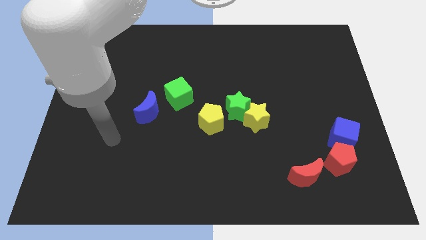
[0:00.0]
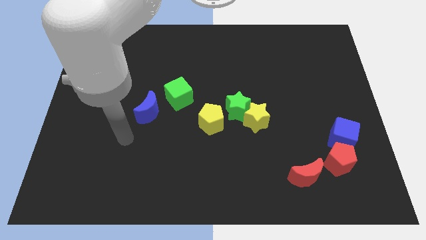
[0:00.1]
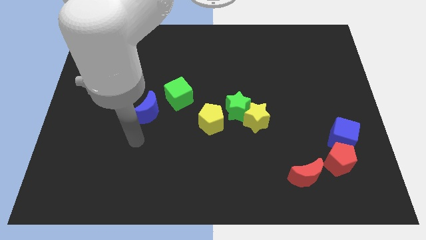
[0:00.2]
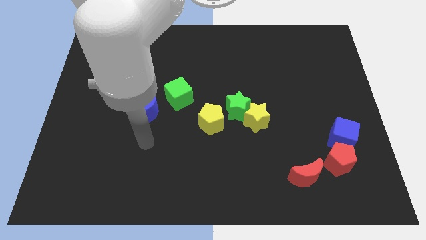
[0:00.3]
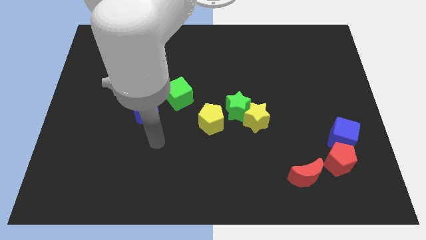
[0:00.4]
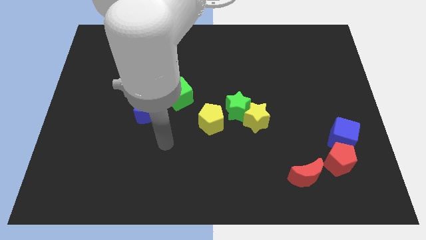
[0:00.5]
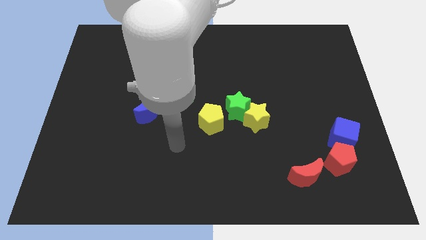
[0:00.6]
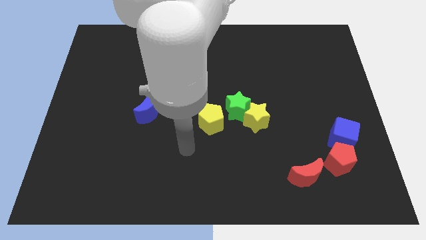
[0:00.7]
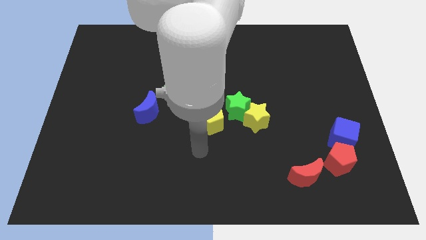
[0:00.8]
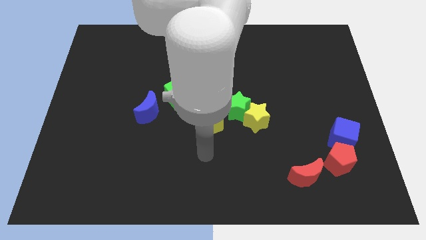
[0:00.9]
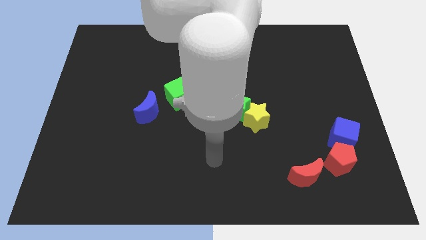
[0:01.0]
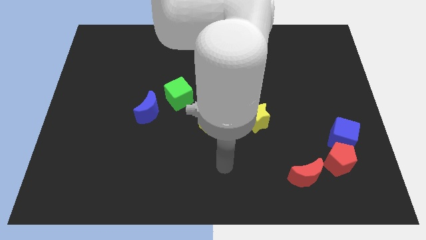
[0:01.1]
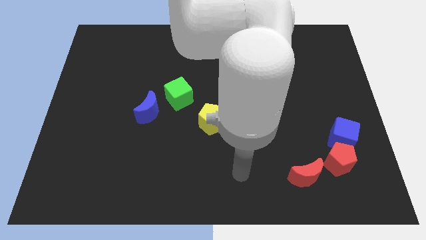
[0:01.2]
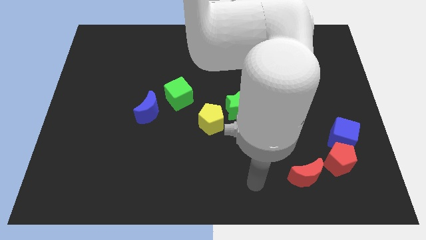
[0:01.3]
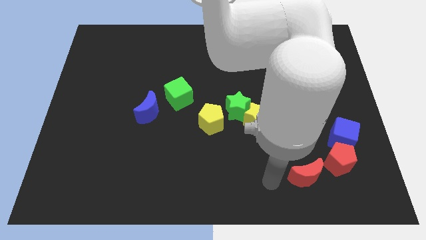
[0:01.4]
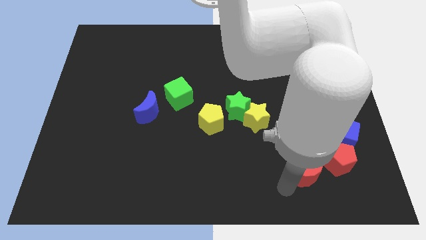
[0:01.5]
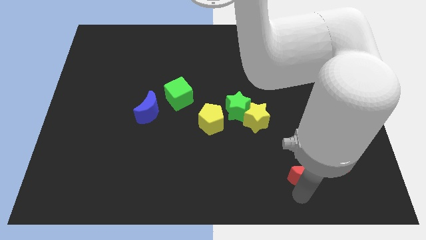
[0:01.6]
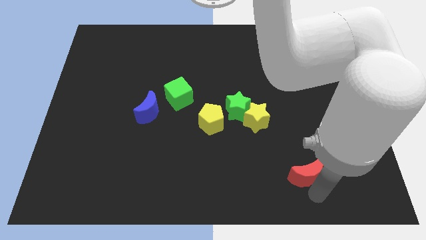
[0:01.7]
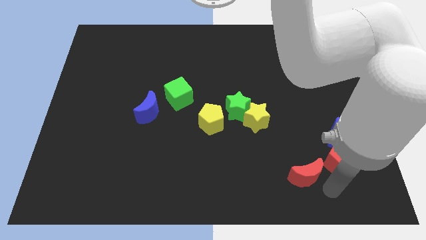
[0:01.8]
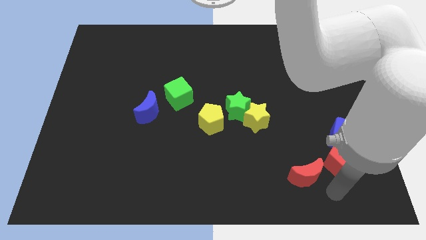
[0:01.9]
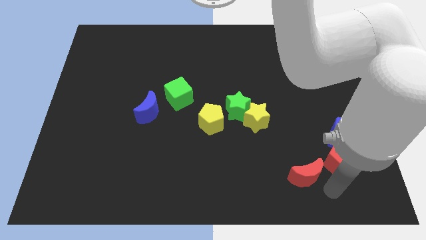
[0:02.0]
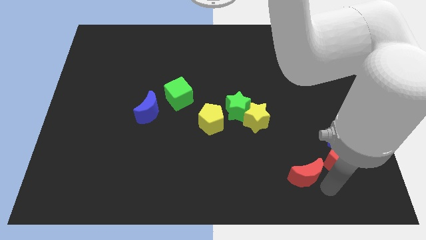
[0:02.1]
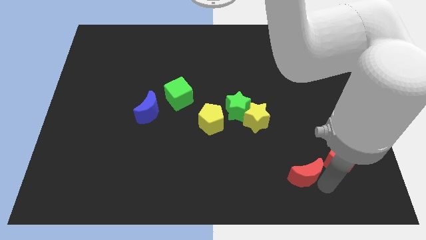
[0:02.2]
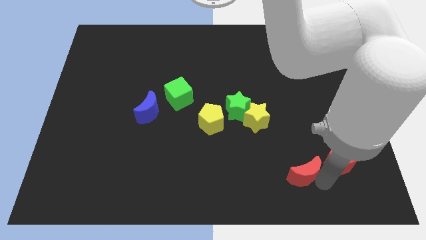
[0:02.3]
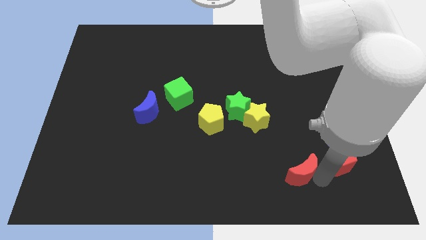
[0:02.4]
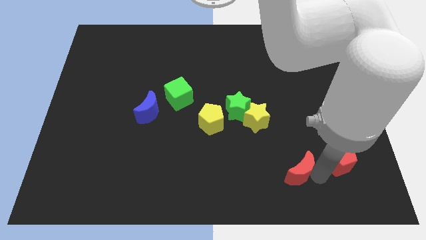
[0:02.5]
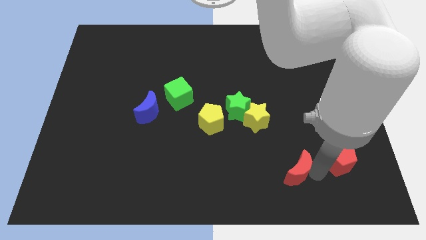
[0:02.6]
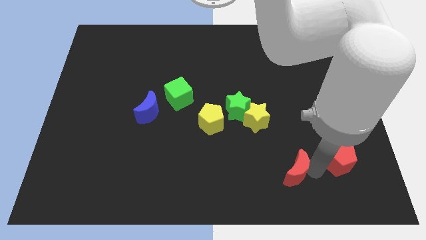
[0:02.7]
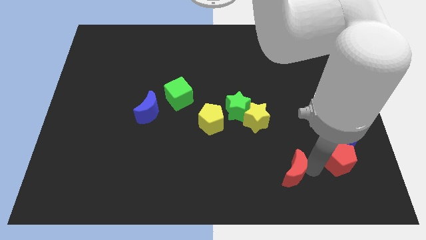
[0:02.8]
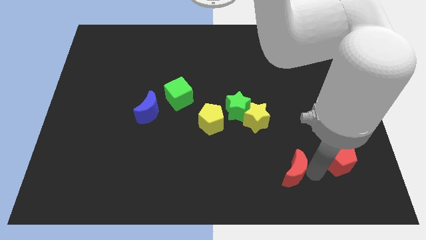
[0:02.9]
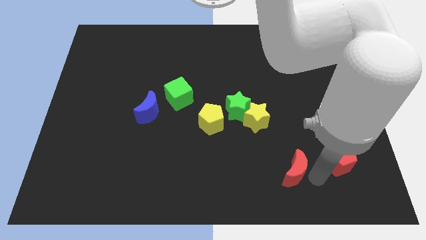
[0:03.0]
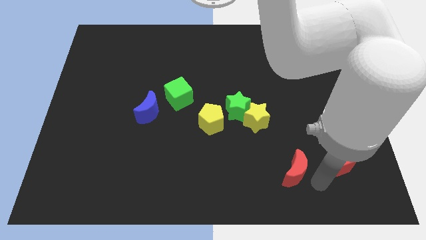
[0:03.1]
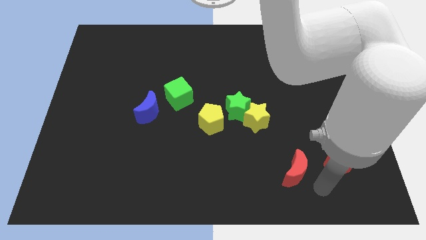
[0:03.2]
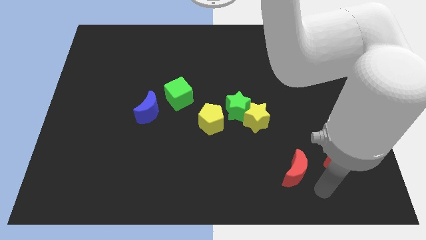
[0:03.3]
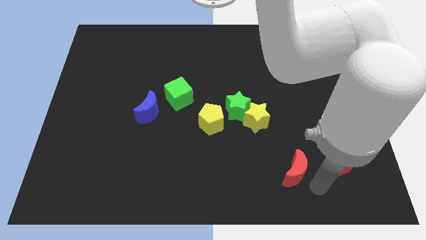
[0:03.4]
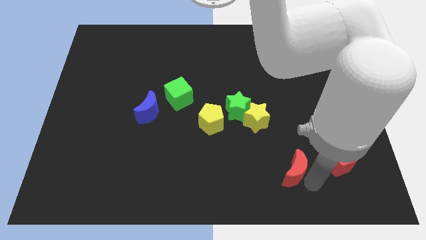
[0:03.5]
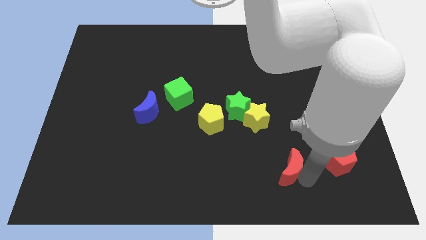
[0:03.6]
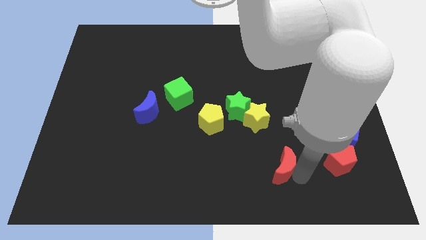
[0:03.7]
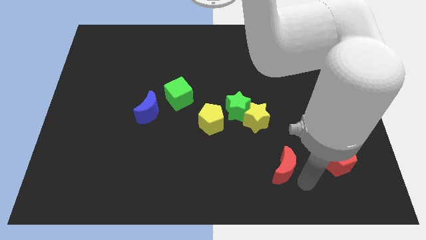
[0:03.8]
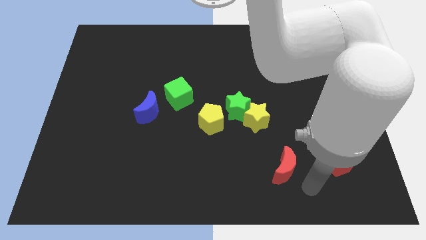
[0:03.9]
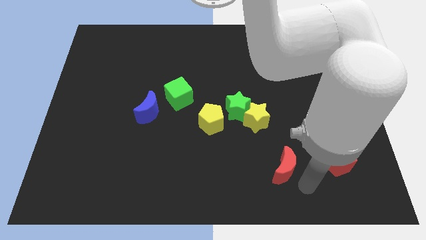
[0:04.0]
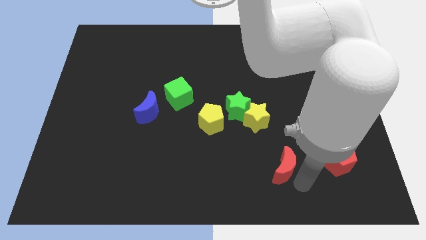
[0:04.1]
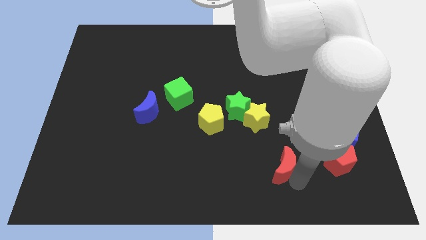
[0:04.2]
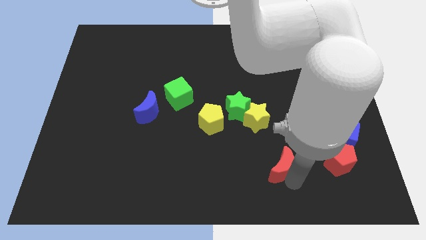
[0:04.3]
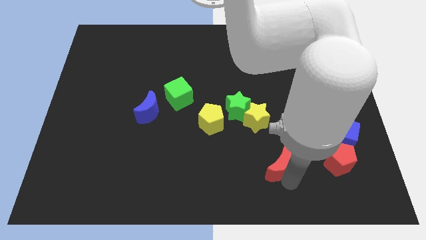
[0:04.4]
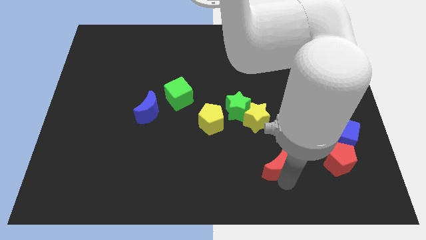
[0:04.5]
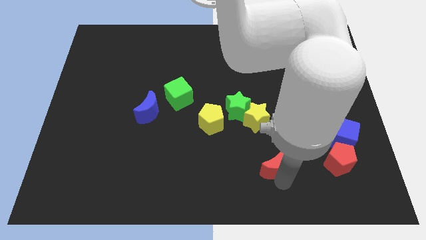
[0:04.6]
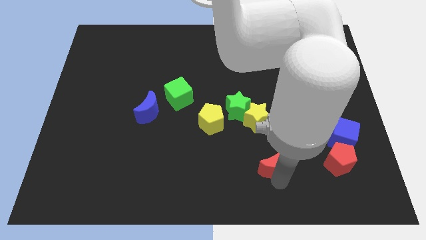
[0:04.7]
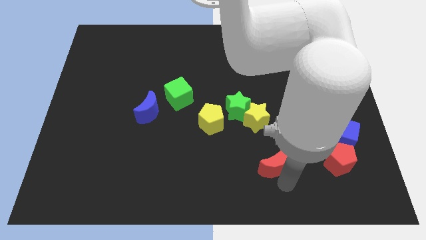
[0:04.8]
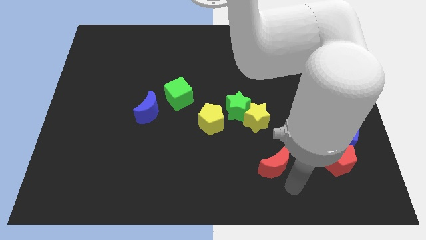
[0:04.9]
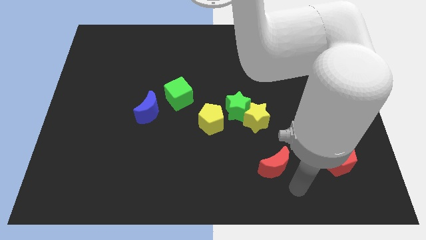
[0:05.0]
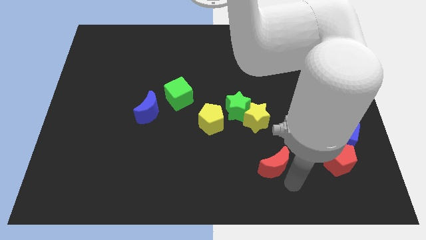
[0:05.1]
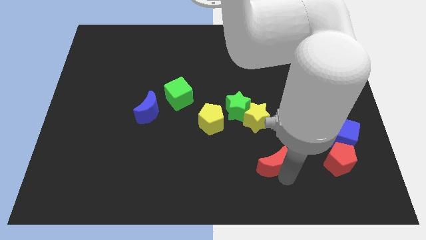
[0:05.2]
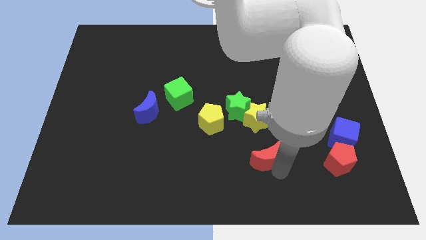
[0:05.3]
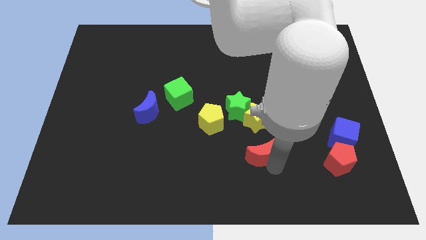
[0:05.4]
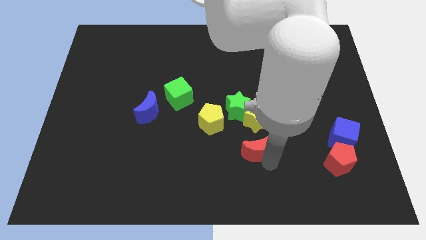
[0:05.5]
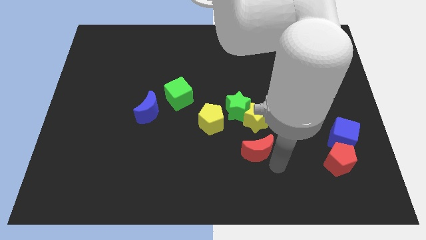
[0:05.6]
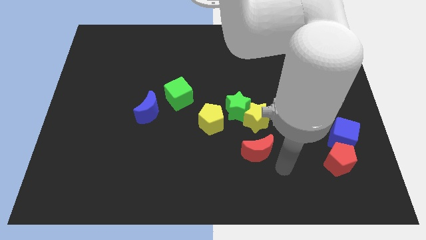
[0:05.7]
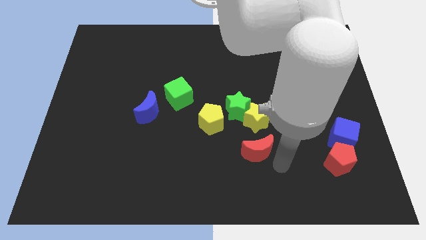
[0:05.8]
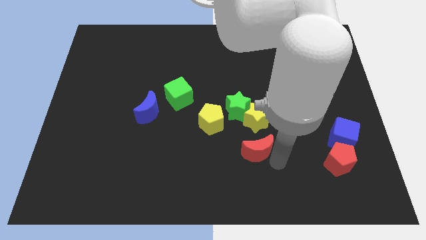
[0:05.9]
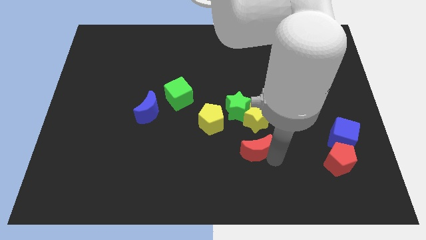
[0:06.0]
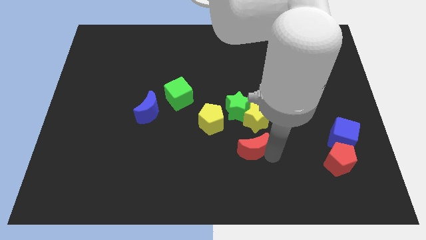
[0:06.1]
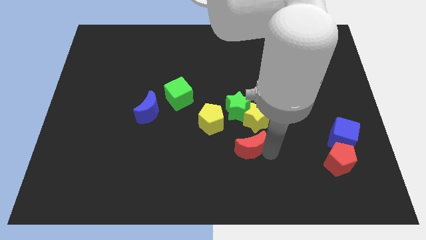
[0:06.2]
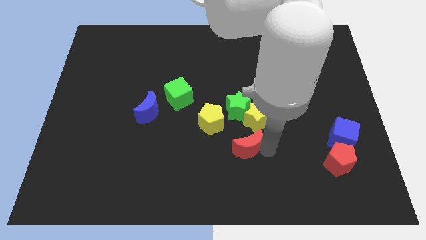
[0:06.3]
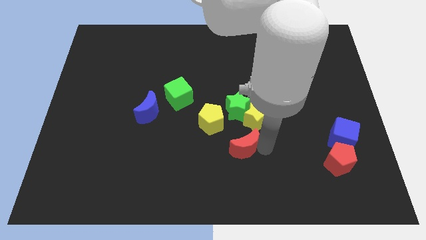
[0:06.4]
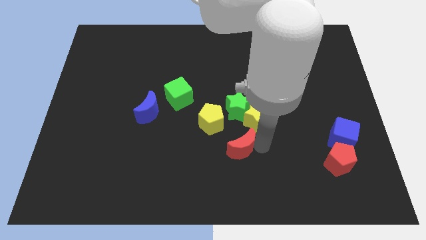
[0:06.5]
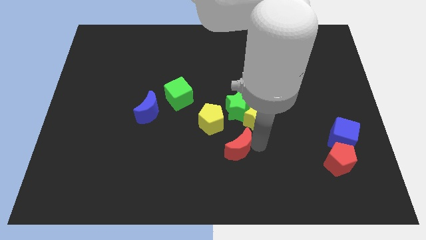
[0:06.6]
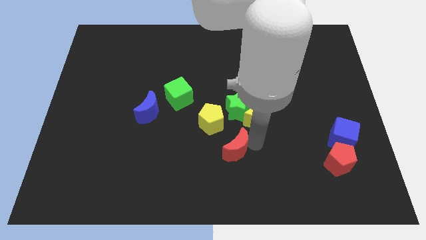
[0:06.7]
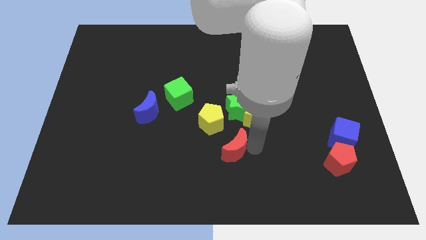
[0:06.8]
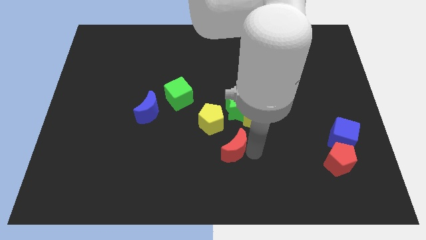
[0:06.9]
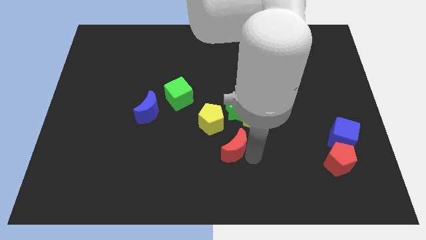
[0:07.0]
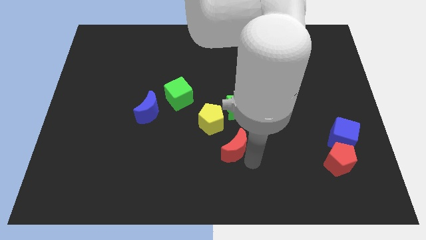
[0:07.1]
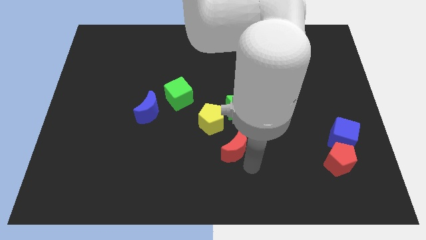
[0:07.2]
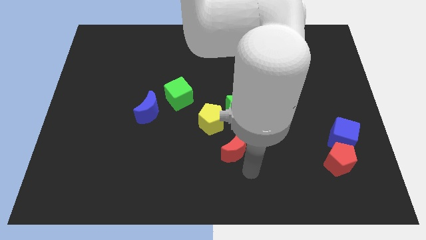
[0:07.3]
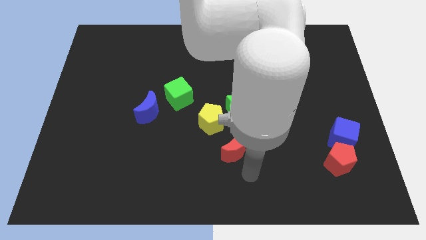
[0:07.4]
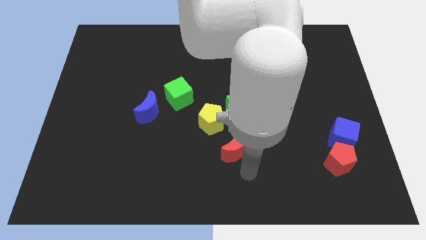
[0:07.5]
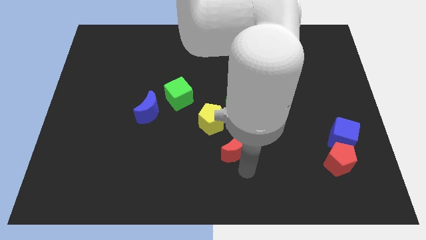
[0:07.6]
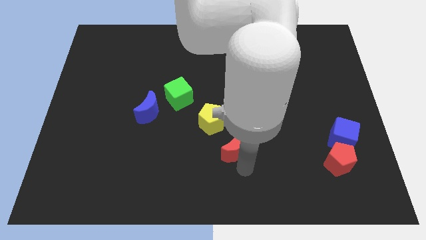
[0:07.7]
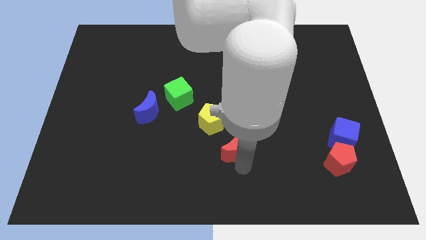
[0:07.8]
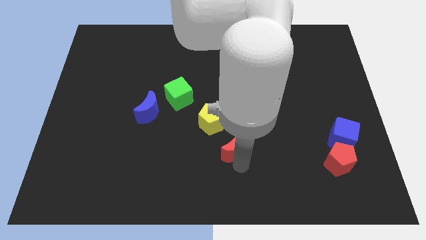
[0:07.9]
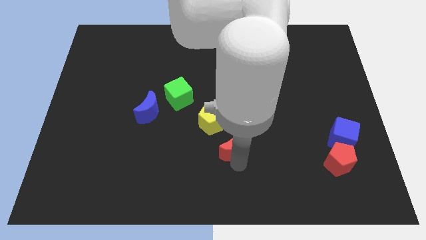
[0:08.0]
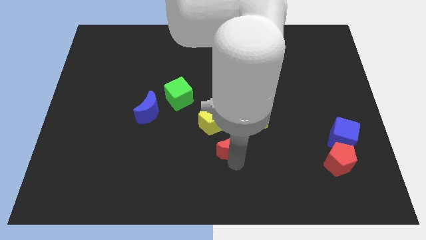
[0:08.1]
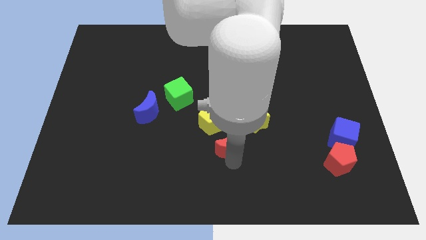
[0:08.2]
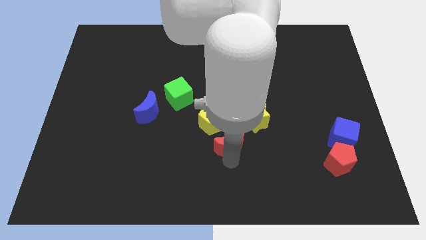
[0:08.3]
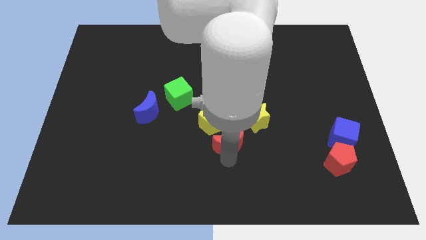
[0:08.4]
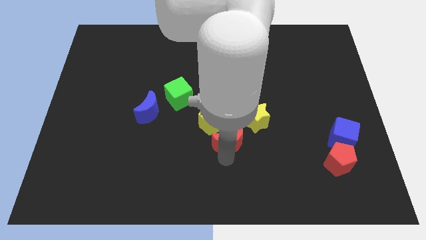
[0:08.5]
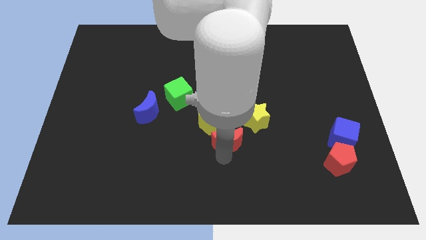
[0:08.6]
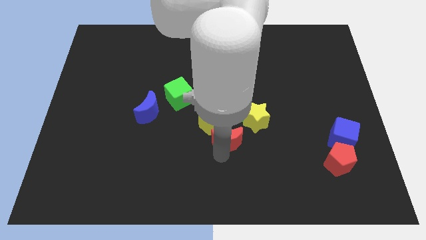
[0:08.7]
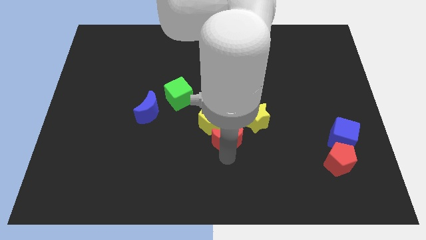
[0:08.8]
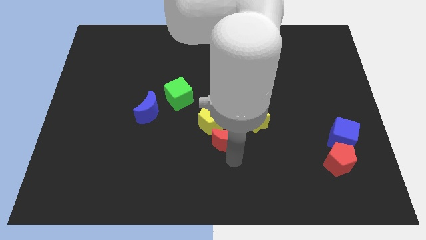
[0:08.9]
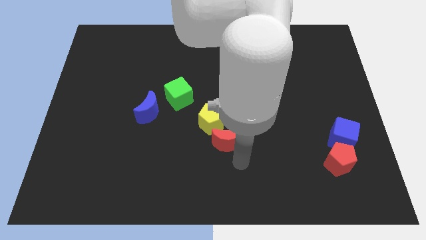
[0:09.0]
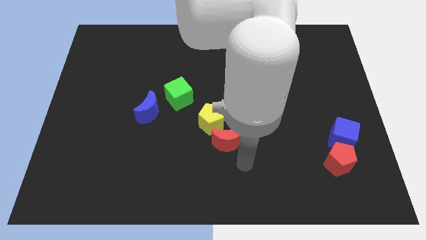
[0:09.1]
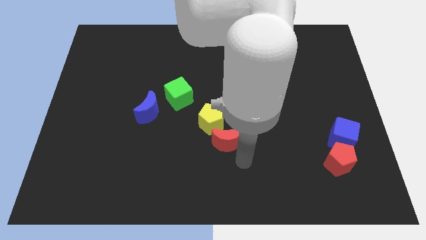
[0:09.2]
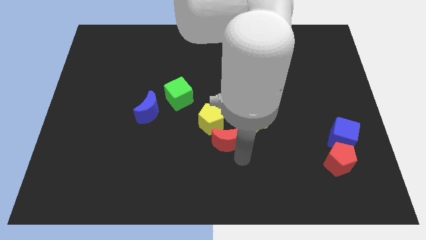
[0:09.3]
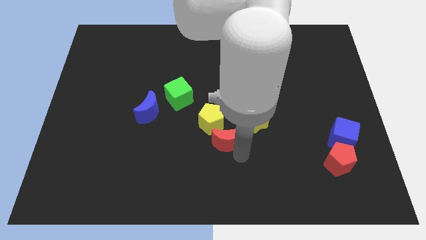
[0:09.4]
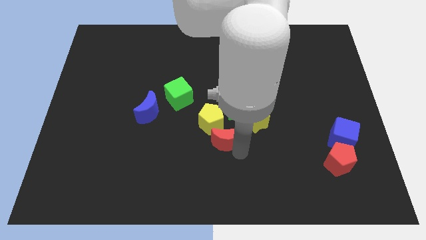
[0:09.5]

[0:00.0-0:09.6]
move the red moon to the yellow pentagon
